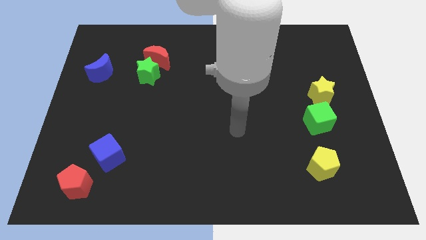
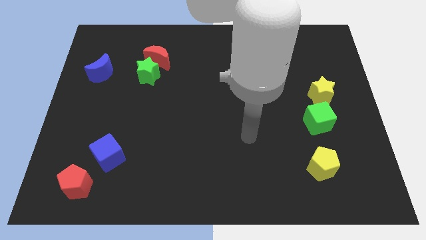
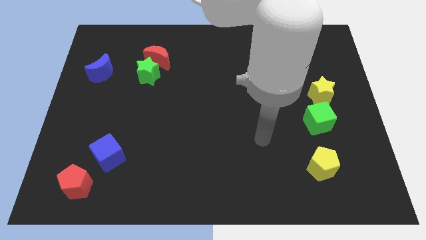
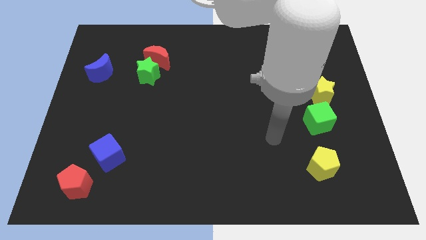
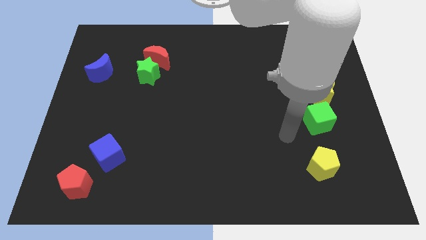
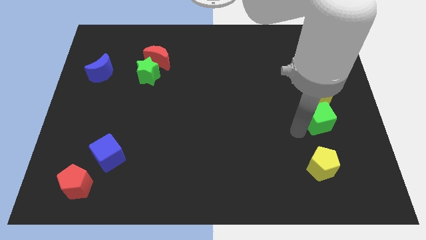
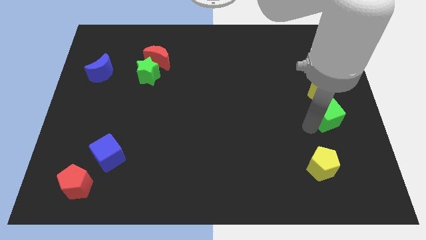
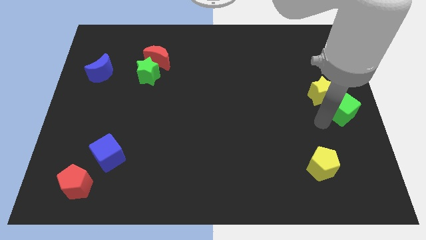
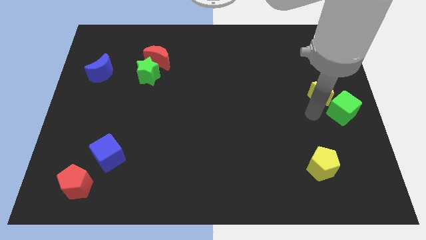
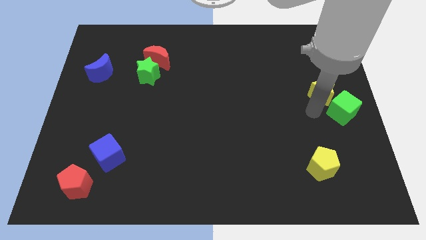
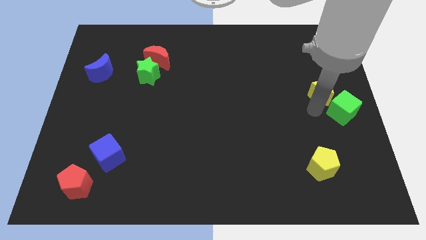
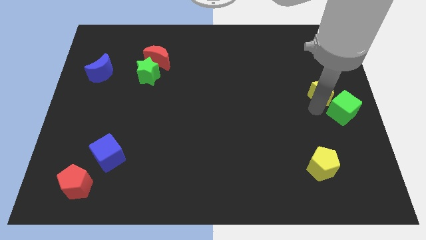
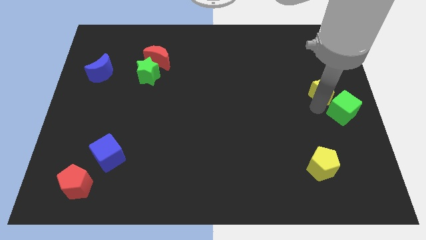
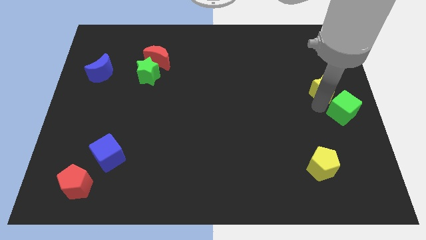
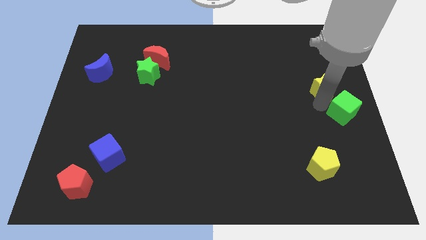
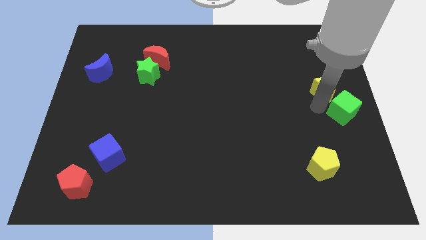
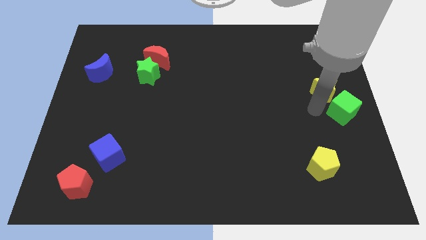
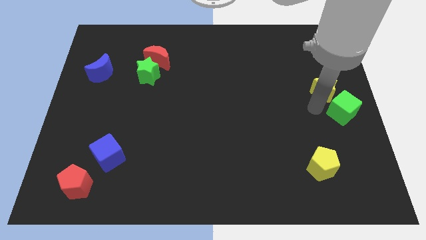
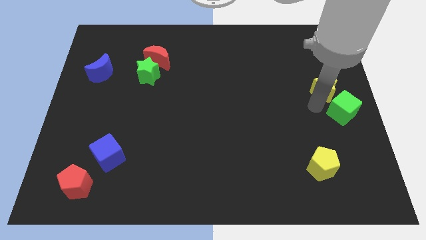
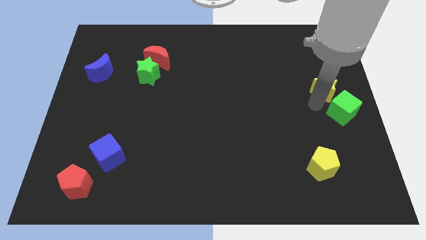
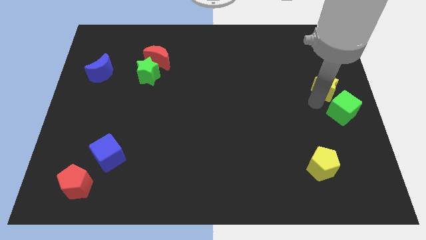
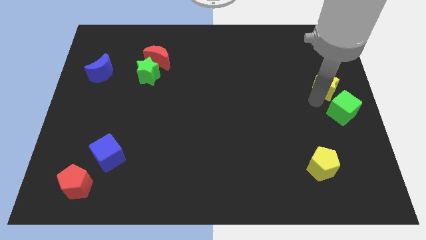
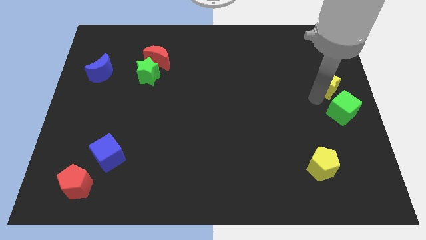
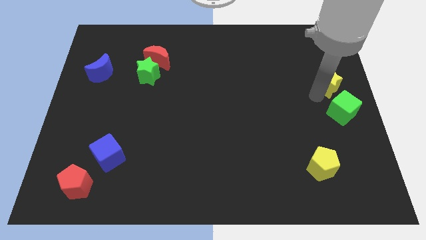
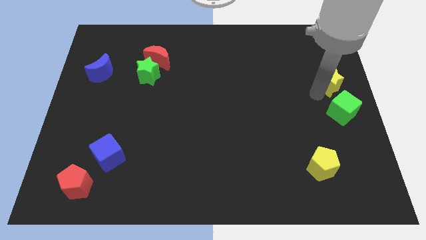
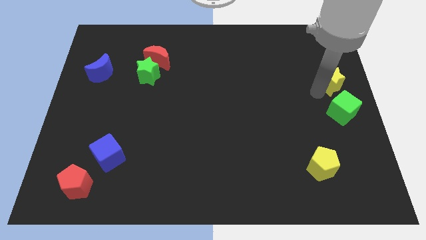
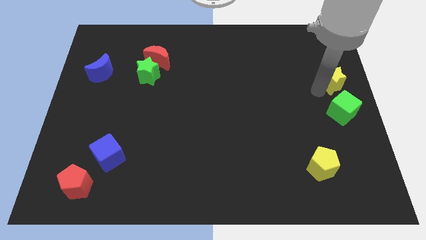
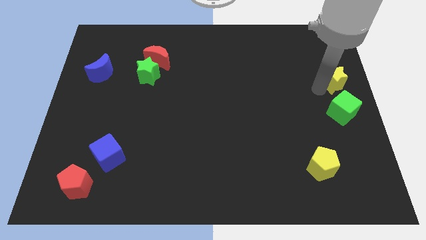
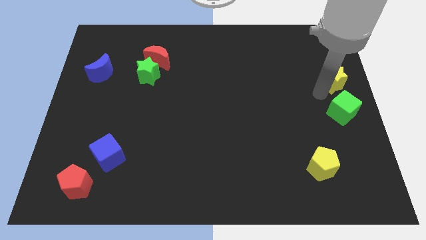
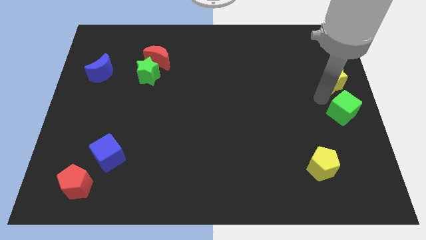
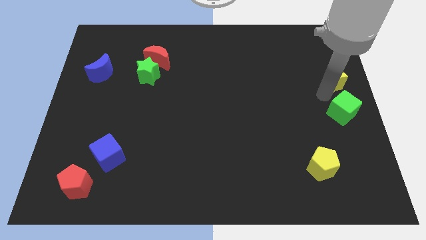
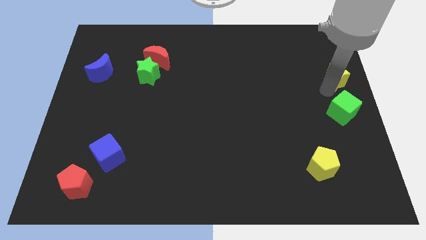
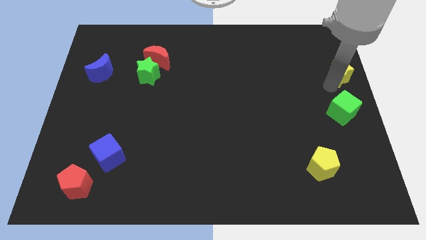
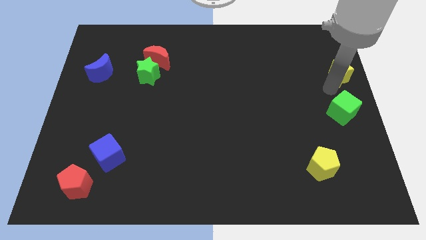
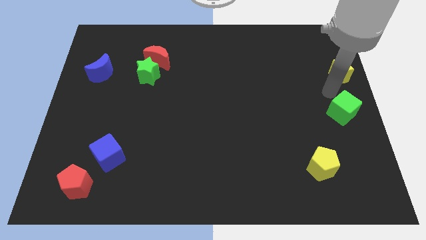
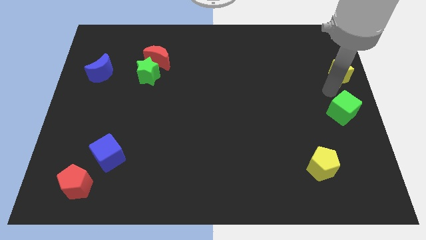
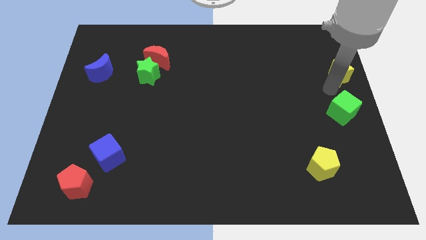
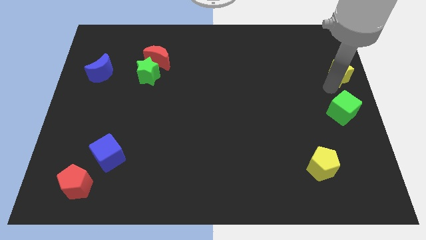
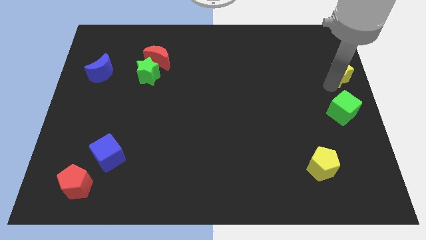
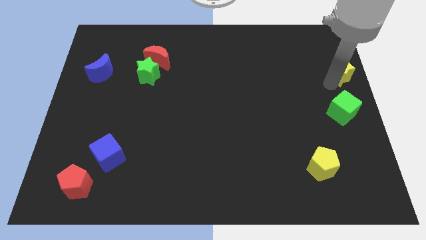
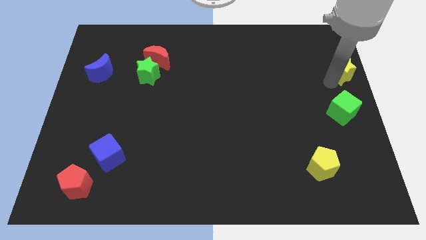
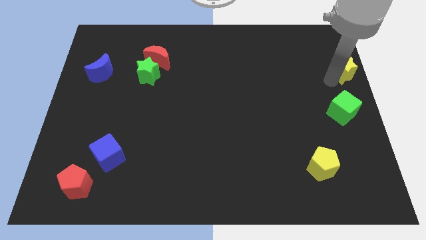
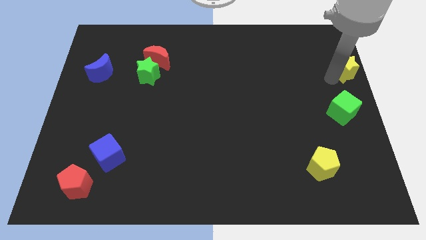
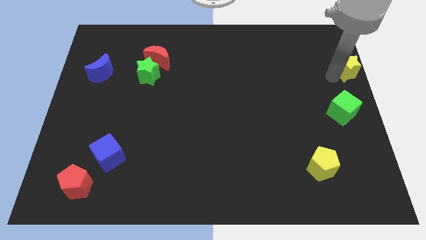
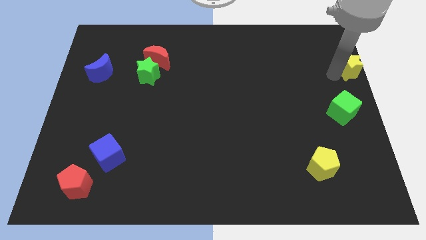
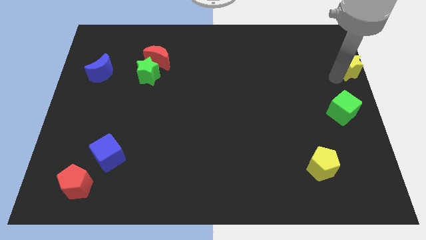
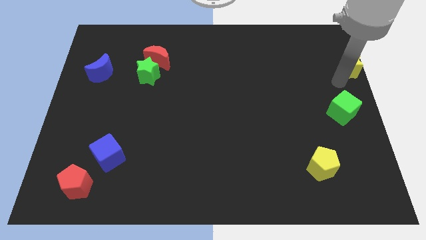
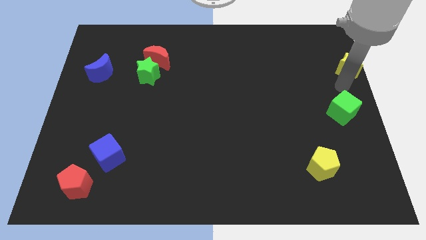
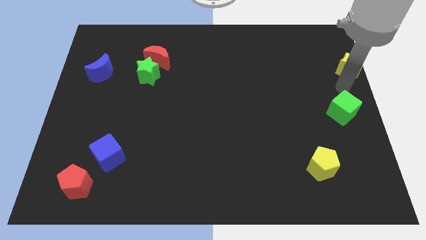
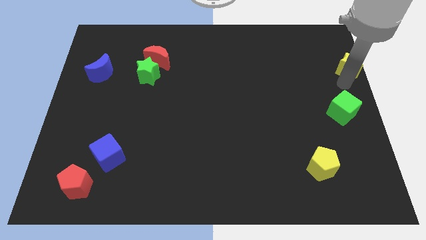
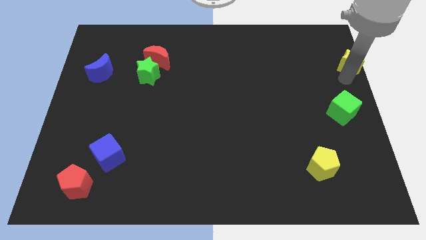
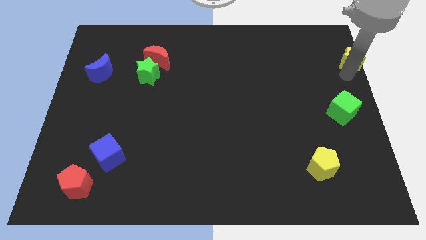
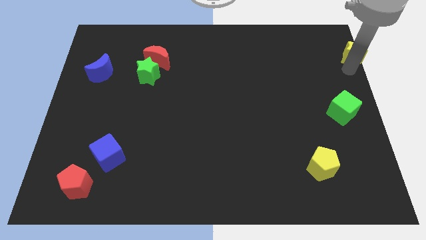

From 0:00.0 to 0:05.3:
slide the yellow star to the upper right corner
